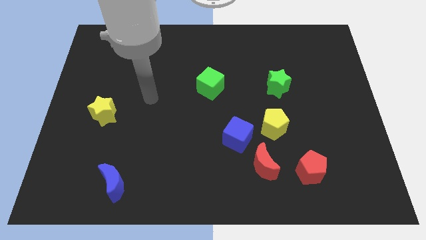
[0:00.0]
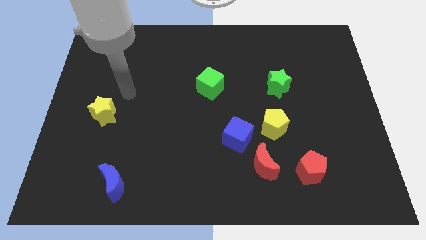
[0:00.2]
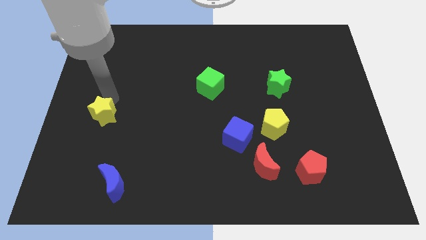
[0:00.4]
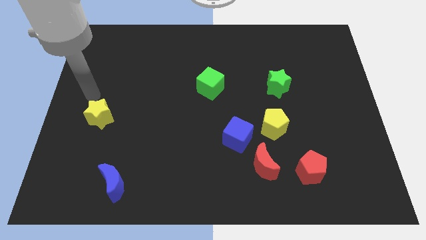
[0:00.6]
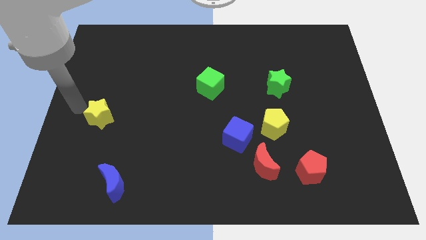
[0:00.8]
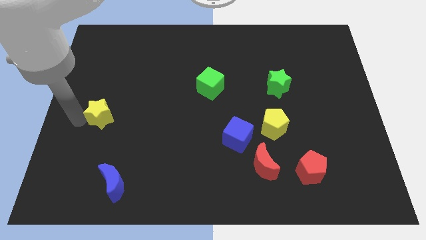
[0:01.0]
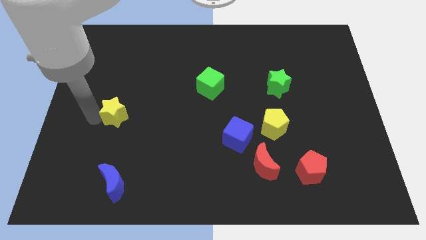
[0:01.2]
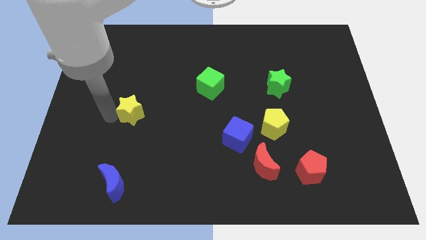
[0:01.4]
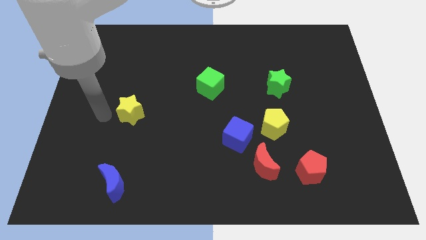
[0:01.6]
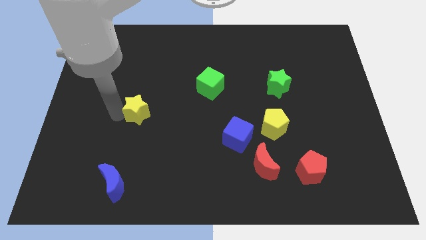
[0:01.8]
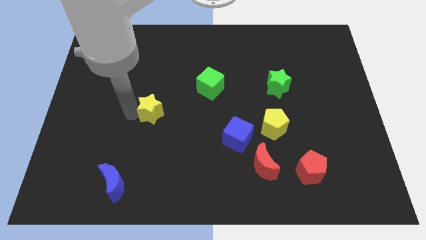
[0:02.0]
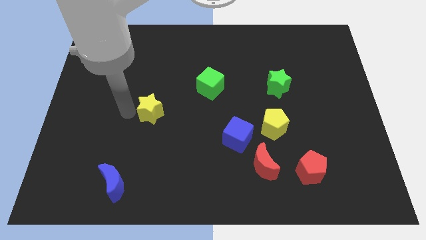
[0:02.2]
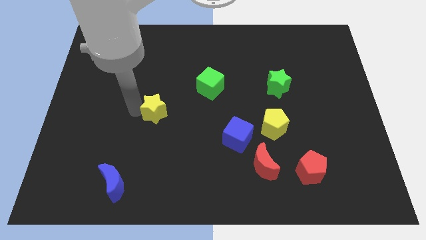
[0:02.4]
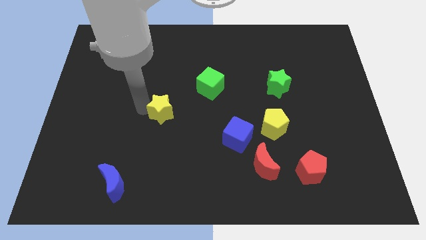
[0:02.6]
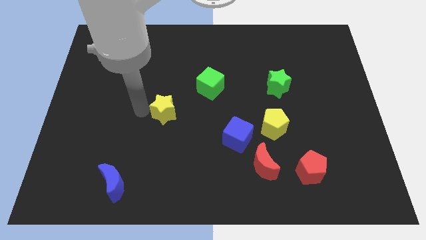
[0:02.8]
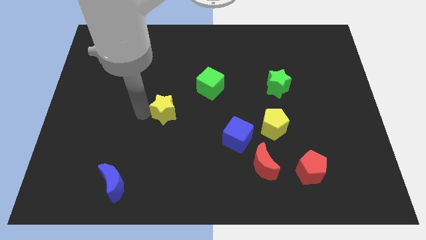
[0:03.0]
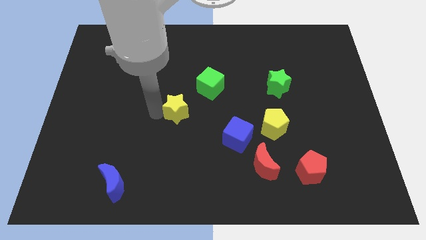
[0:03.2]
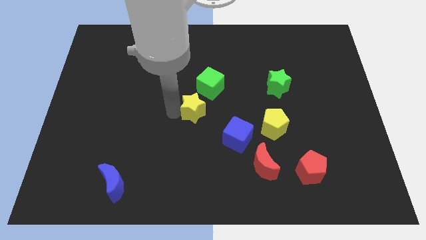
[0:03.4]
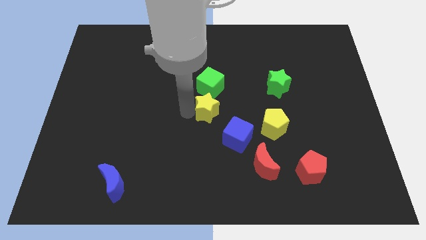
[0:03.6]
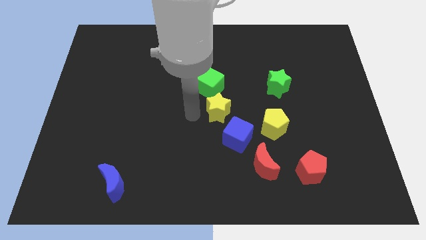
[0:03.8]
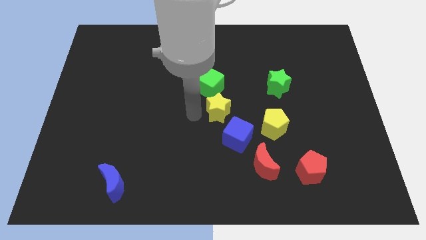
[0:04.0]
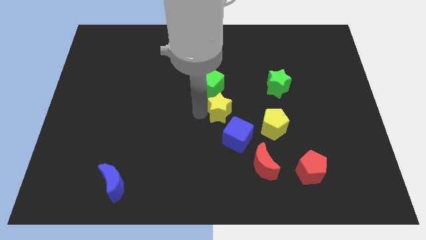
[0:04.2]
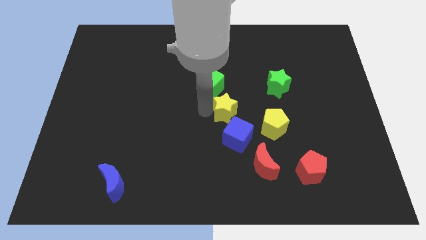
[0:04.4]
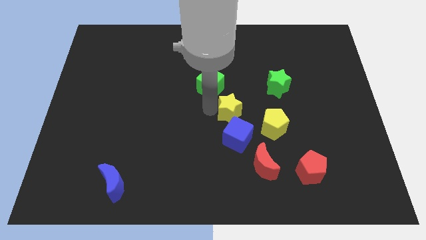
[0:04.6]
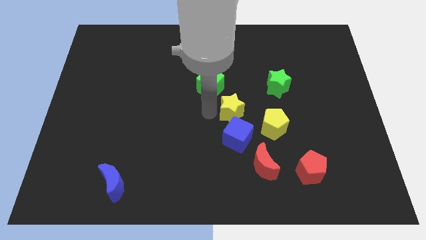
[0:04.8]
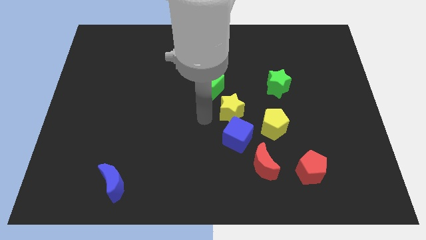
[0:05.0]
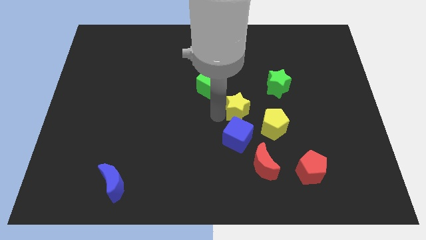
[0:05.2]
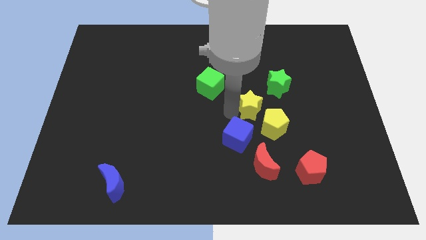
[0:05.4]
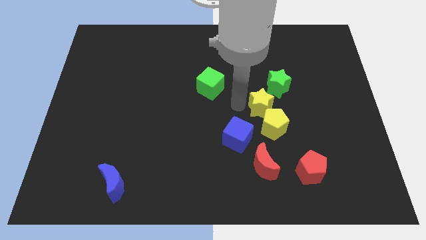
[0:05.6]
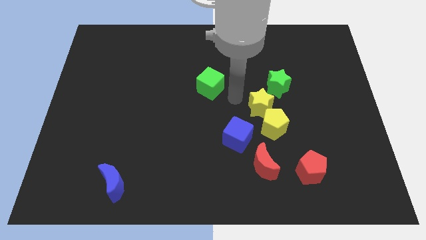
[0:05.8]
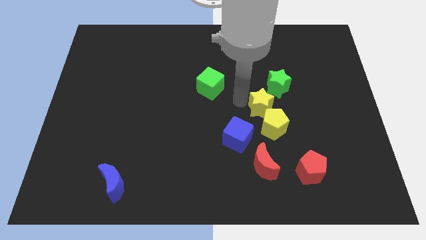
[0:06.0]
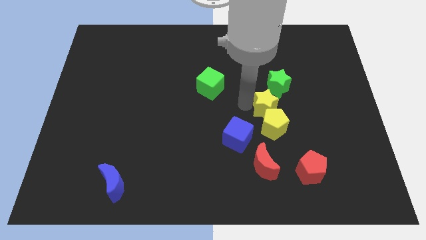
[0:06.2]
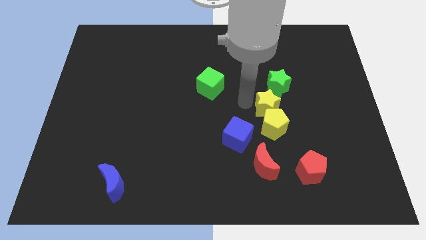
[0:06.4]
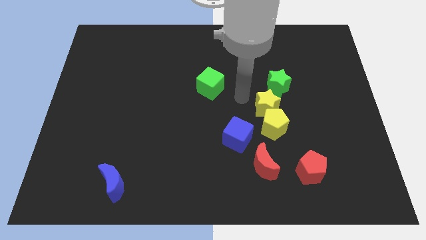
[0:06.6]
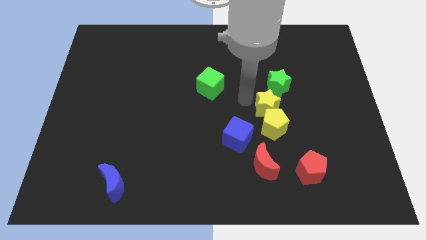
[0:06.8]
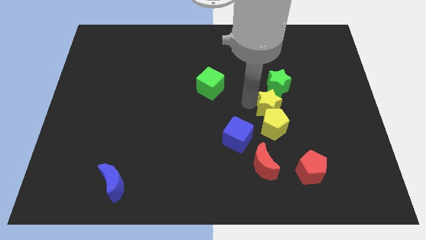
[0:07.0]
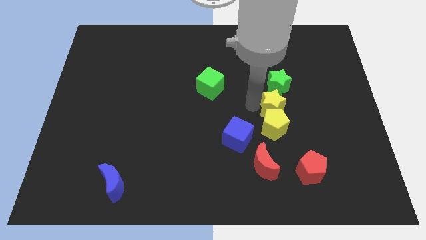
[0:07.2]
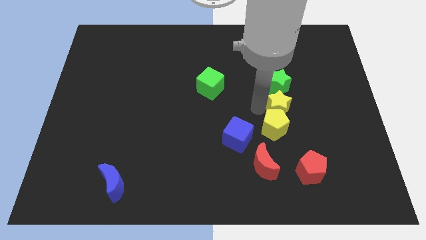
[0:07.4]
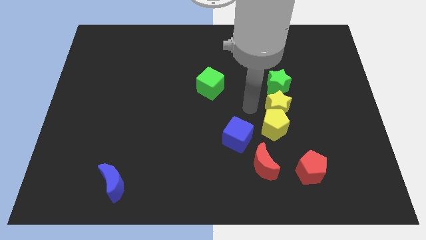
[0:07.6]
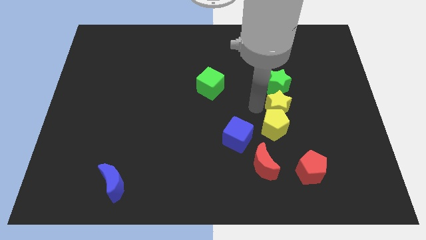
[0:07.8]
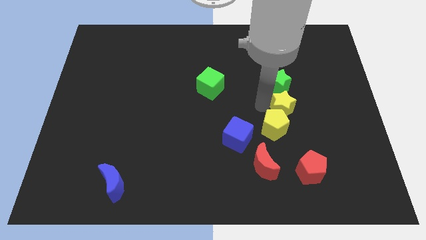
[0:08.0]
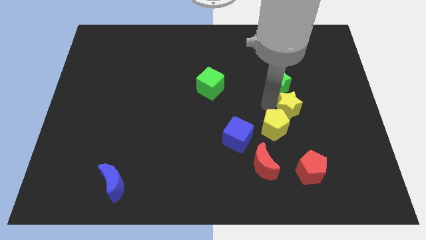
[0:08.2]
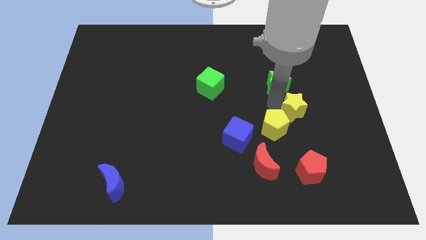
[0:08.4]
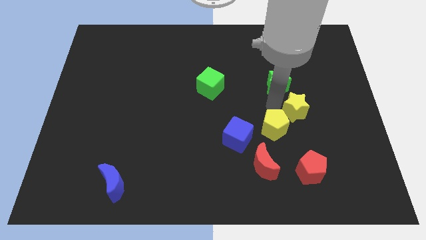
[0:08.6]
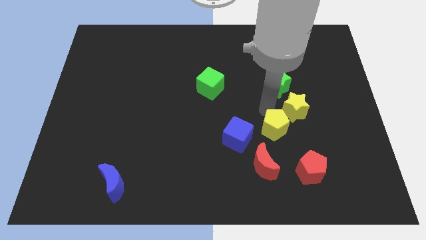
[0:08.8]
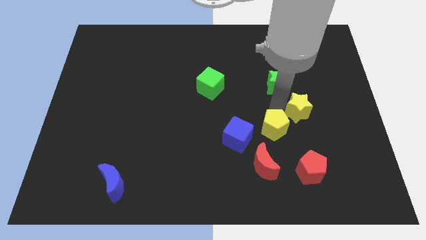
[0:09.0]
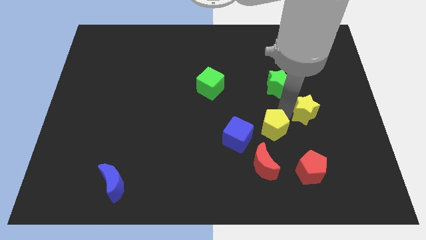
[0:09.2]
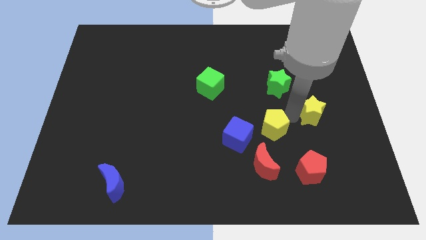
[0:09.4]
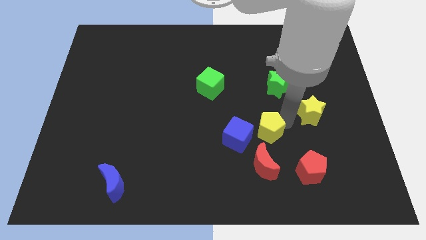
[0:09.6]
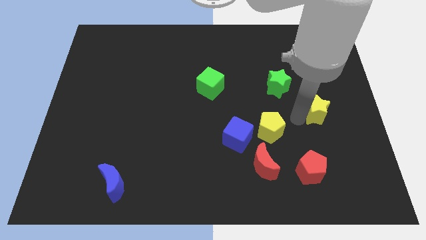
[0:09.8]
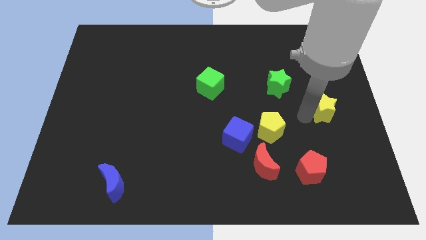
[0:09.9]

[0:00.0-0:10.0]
slide the yellow star to the center right

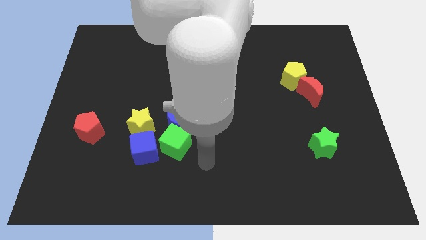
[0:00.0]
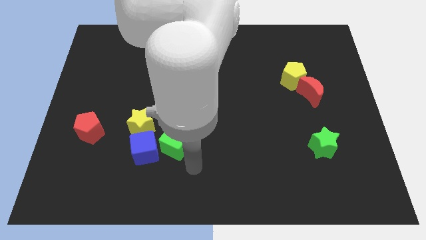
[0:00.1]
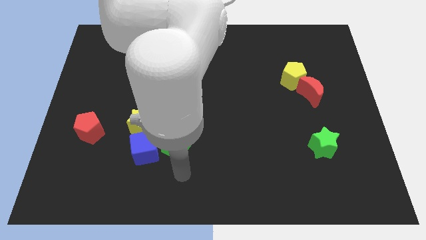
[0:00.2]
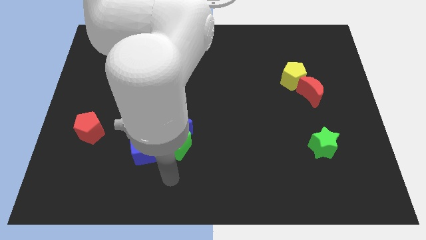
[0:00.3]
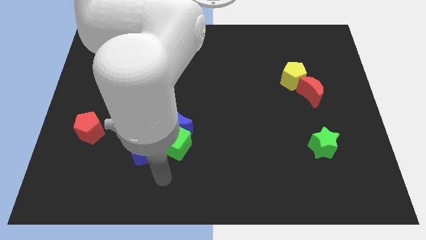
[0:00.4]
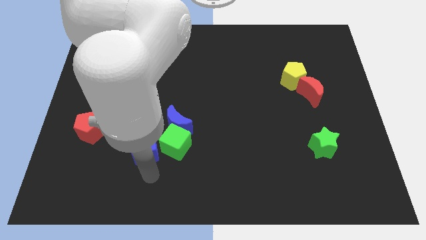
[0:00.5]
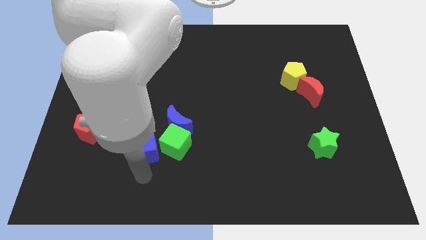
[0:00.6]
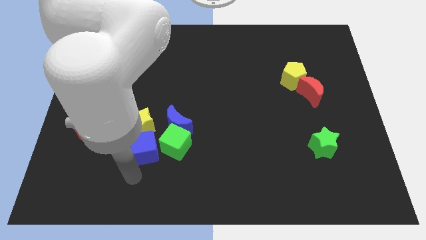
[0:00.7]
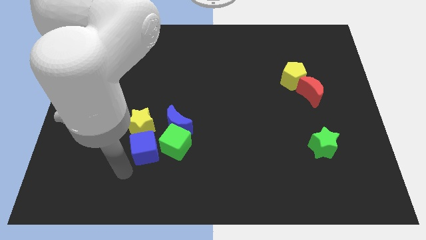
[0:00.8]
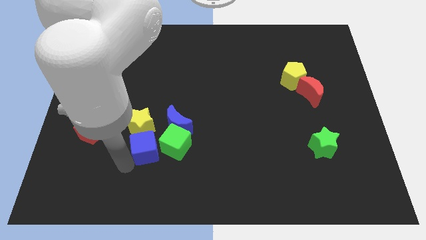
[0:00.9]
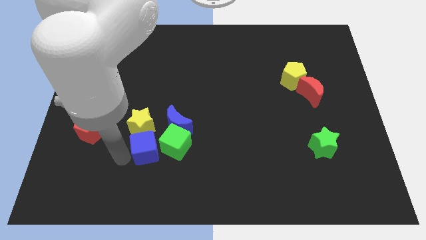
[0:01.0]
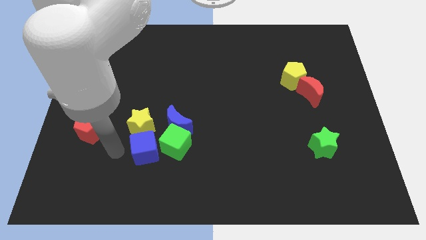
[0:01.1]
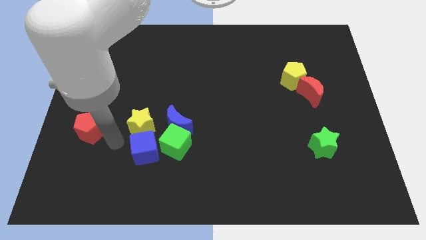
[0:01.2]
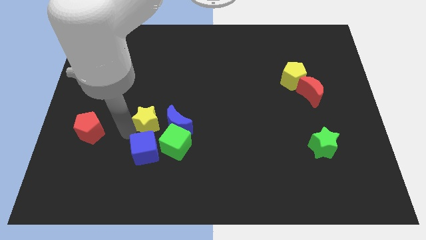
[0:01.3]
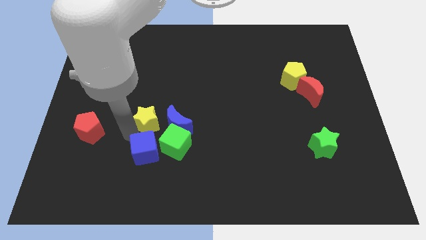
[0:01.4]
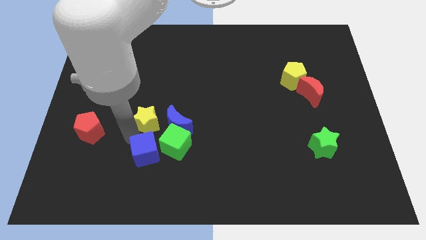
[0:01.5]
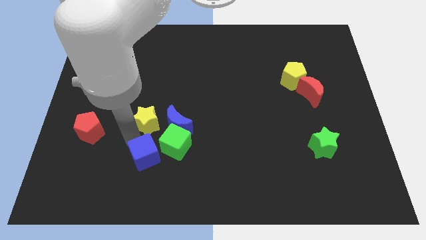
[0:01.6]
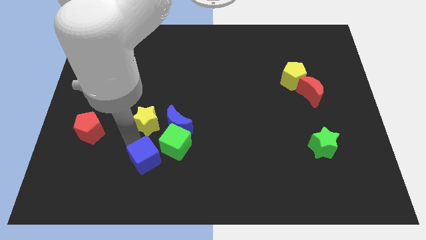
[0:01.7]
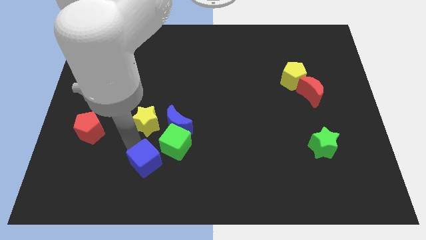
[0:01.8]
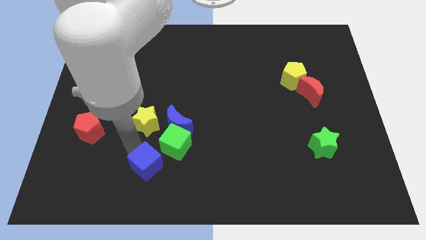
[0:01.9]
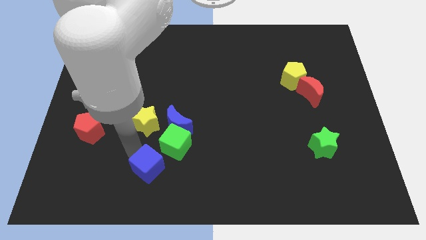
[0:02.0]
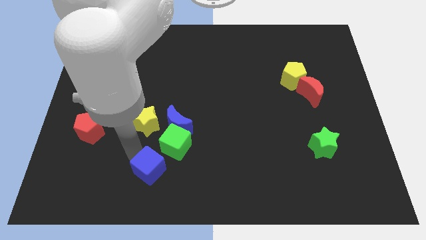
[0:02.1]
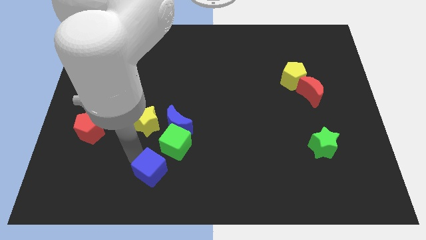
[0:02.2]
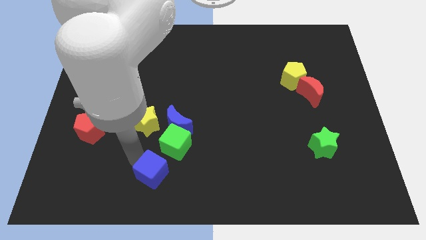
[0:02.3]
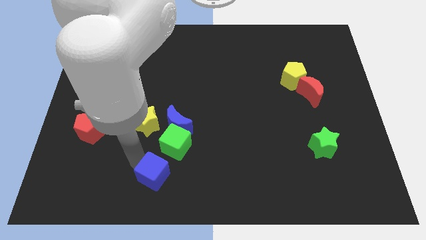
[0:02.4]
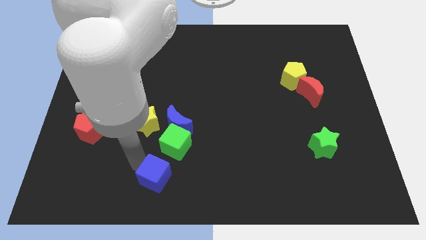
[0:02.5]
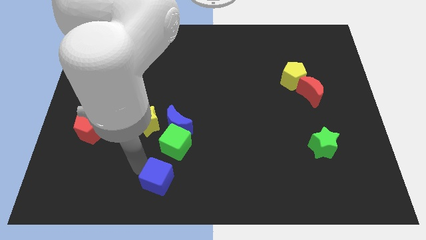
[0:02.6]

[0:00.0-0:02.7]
slide the blue cube to the bottom side
